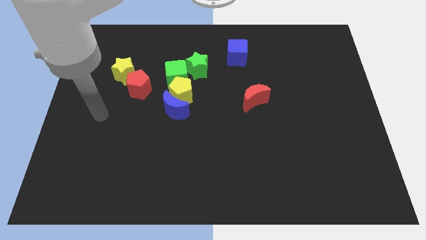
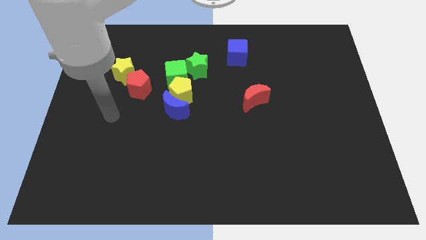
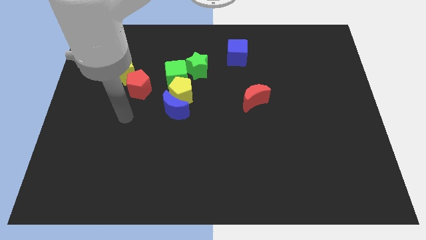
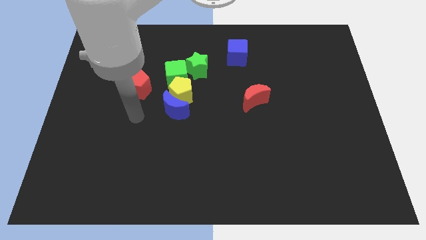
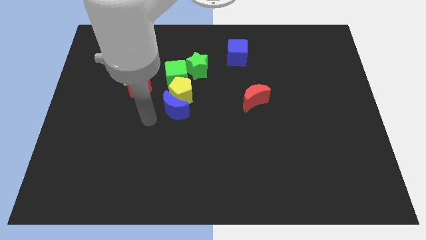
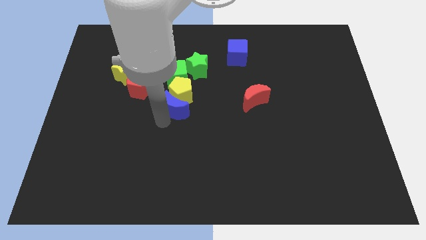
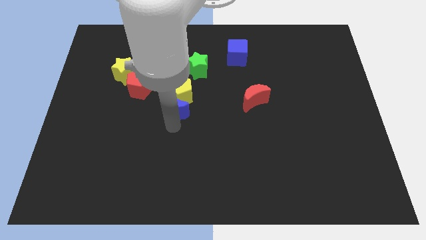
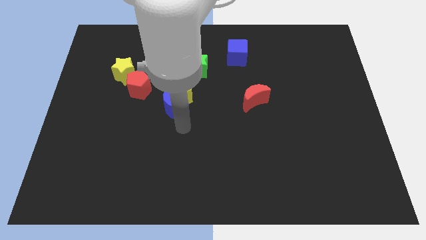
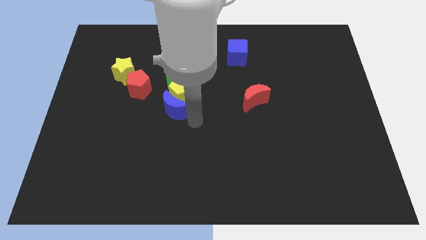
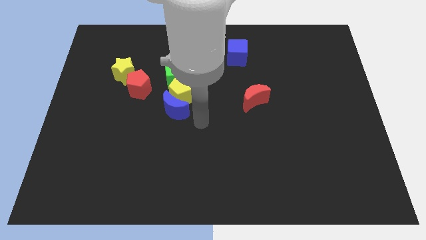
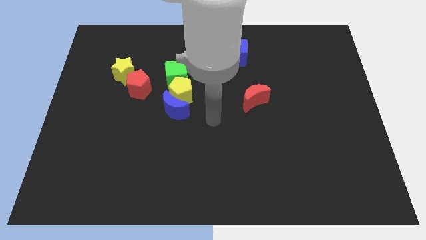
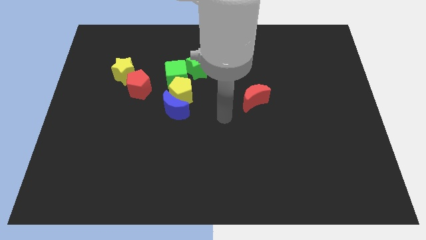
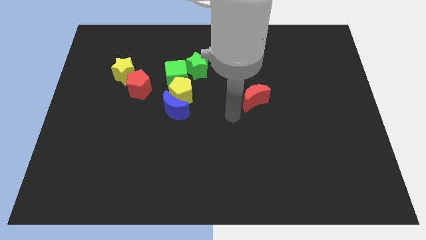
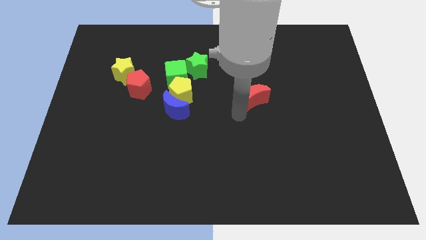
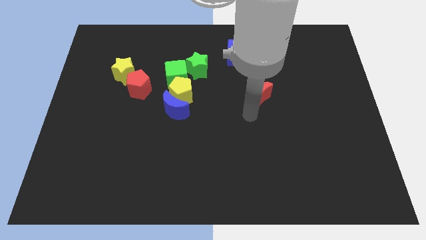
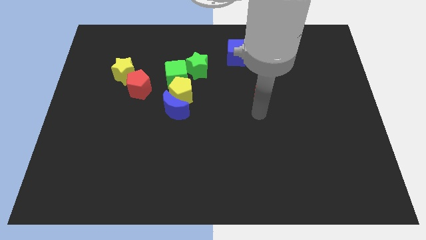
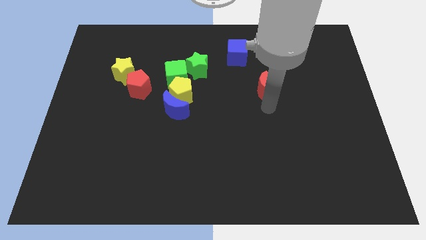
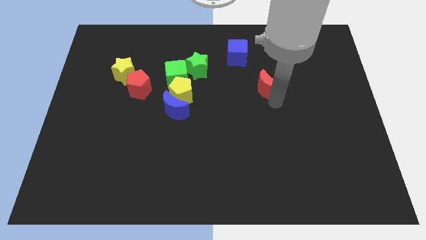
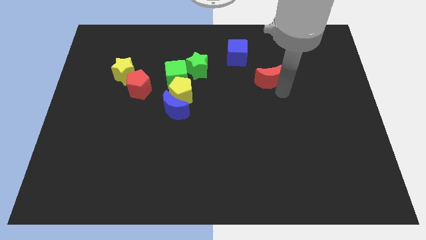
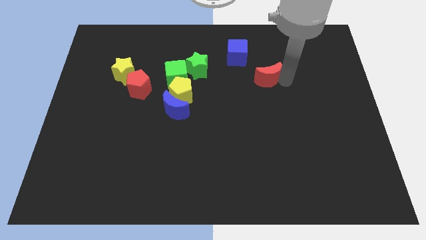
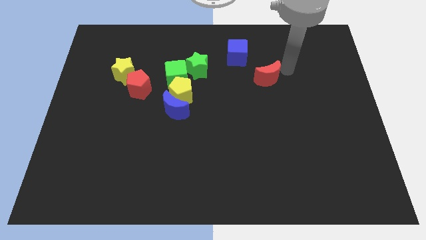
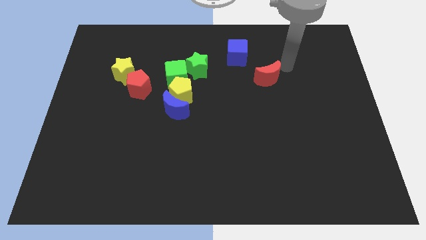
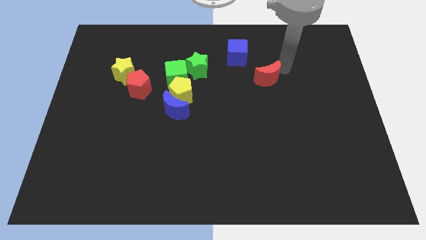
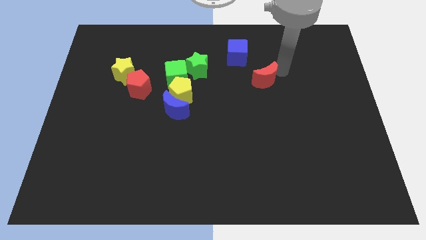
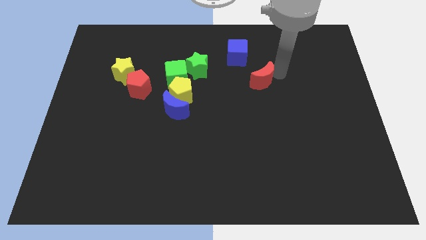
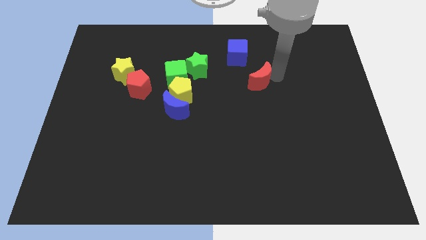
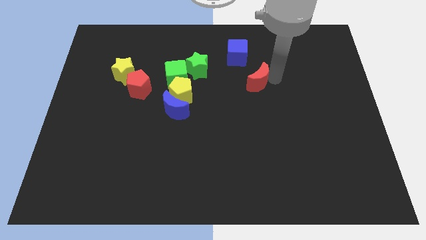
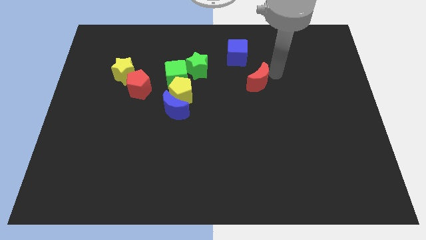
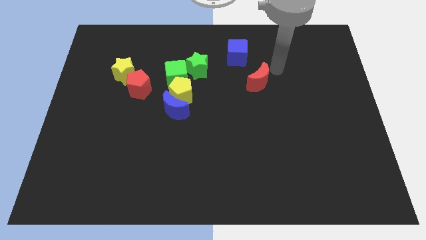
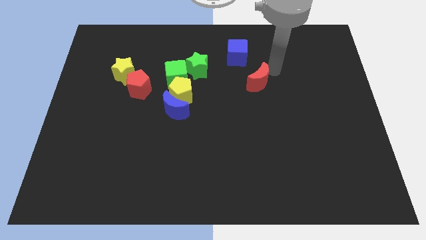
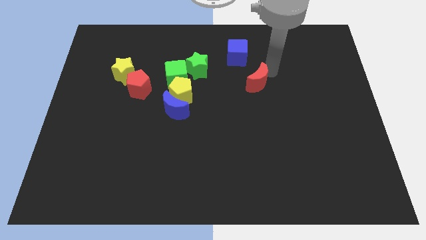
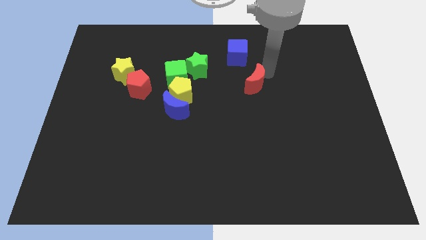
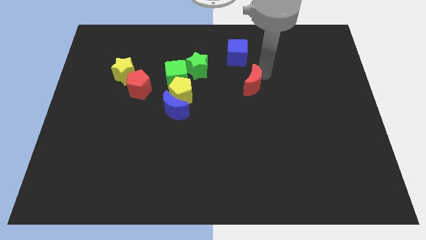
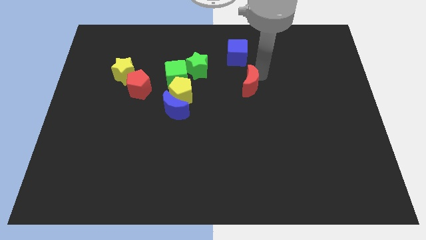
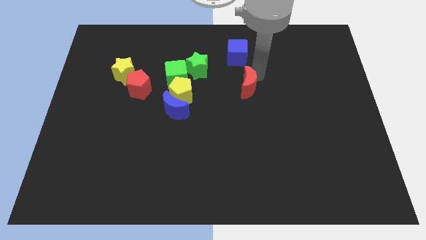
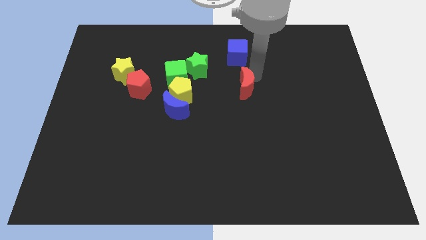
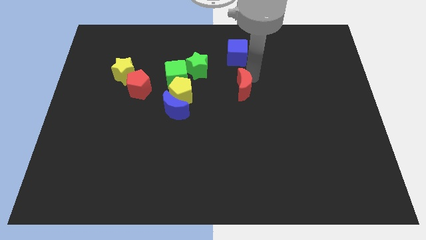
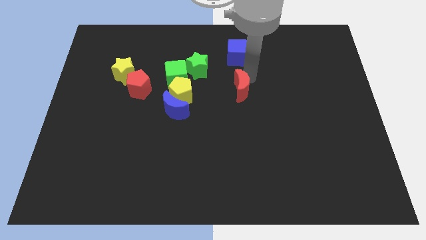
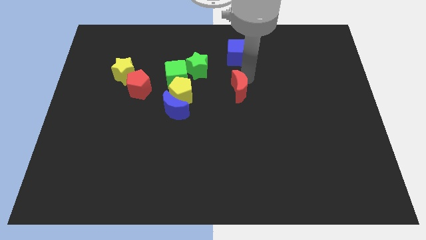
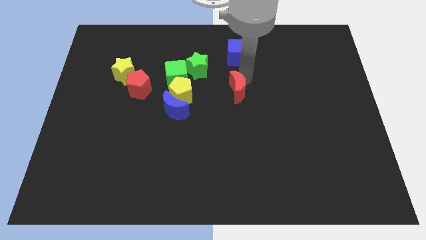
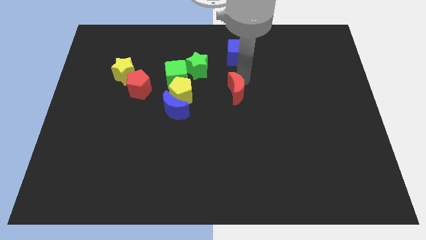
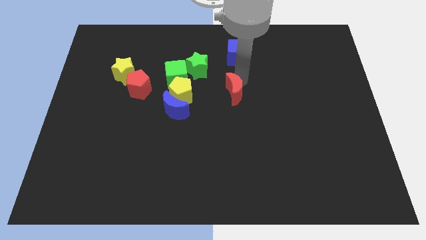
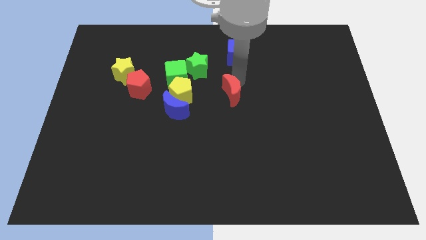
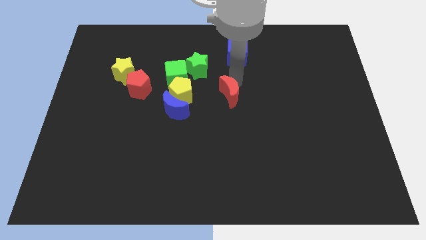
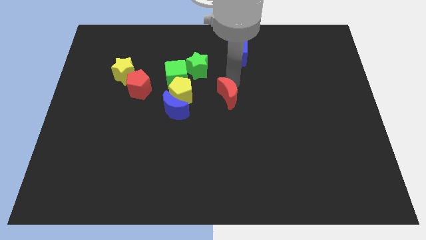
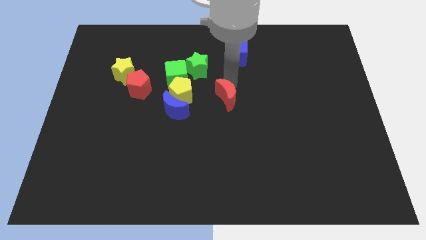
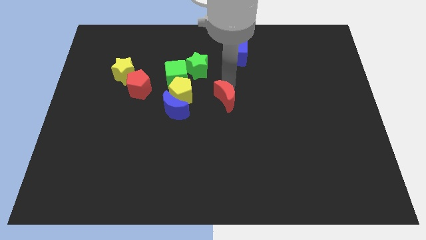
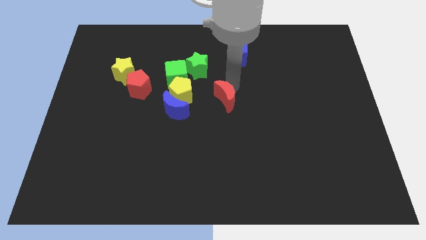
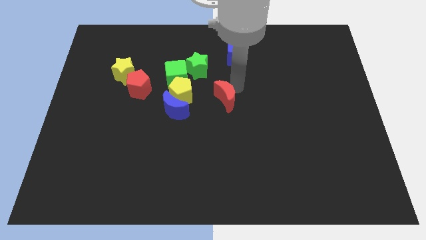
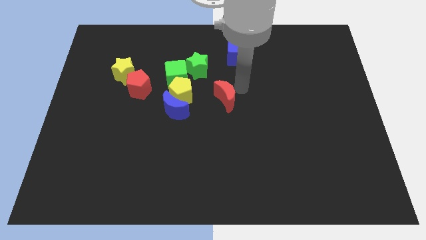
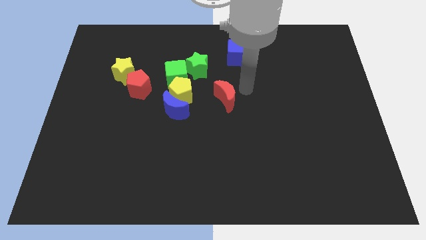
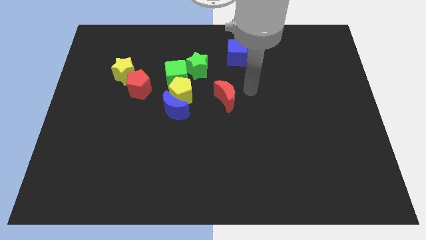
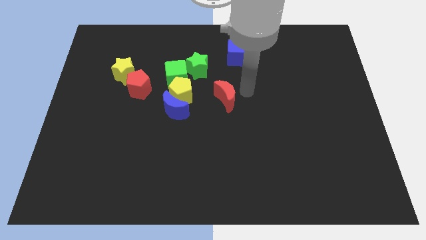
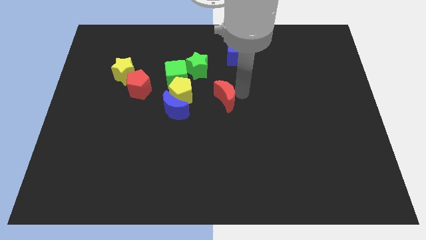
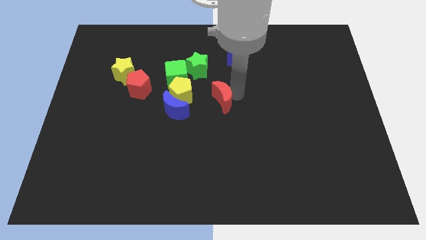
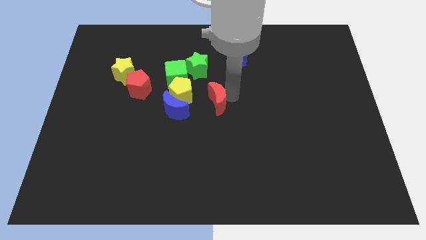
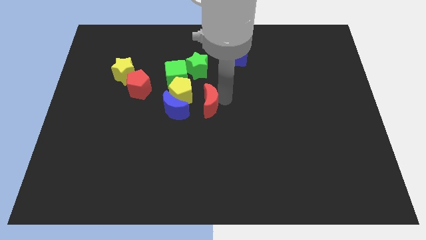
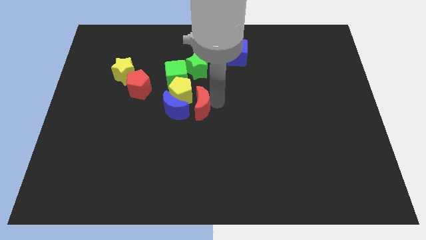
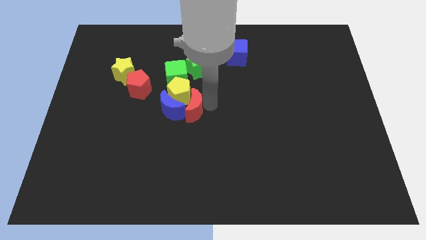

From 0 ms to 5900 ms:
slide the red moon to the blue moon

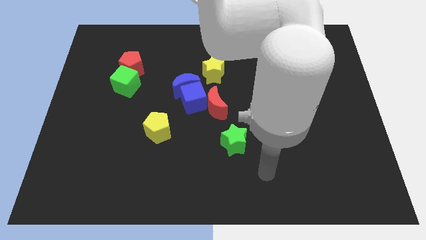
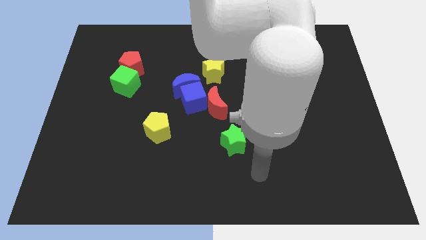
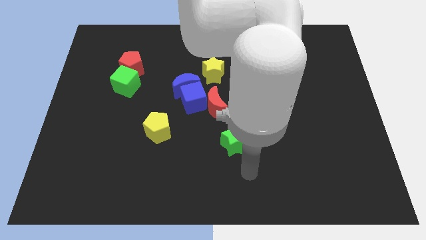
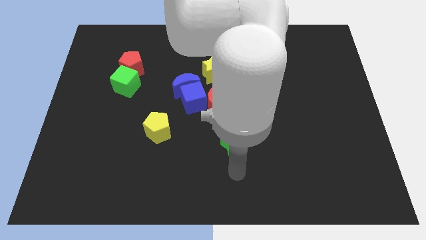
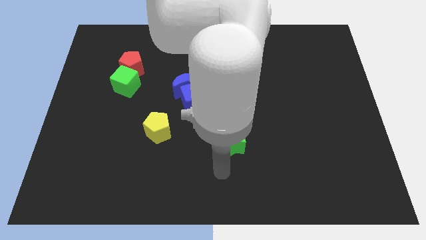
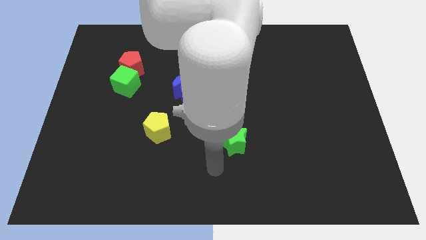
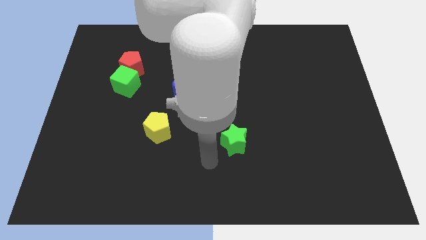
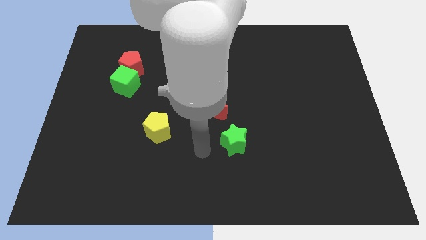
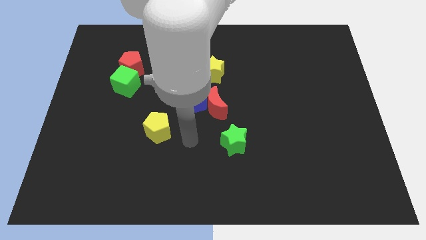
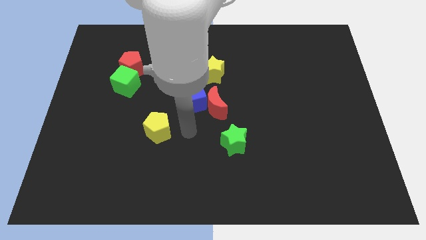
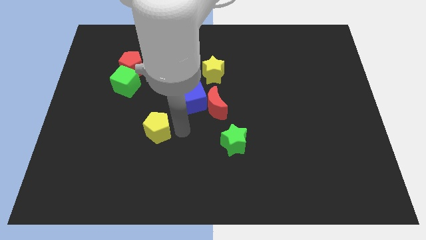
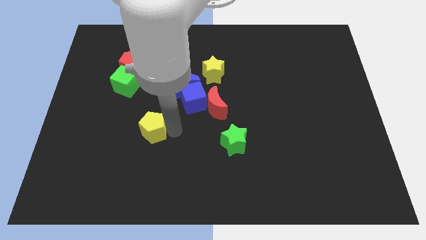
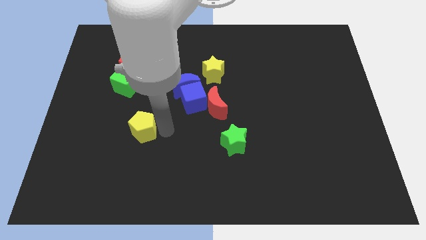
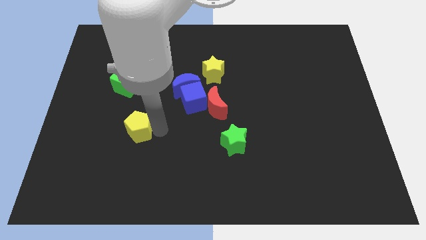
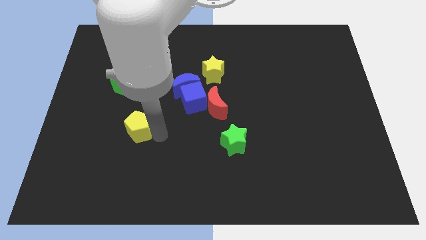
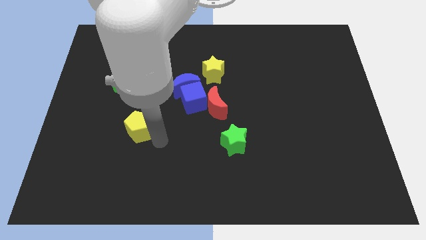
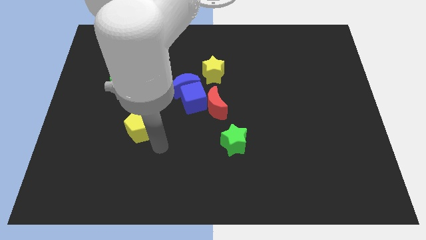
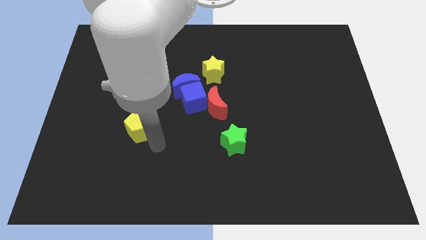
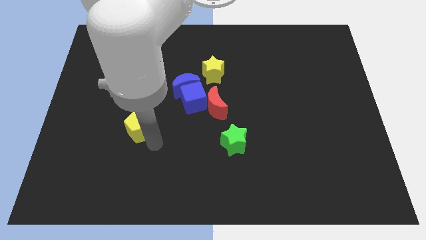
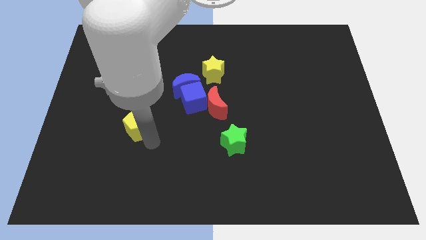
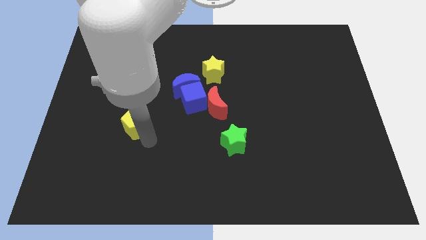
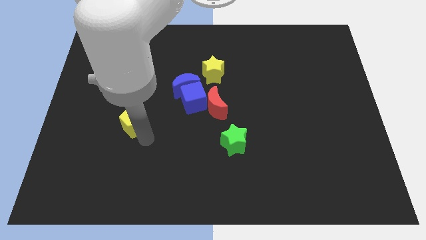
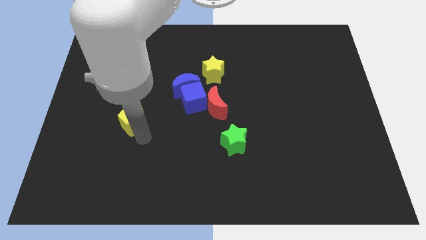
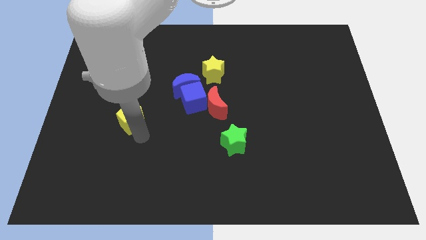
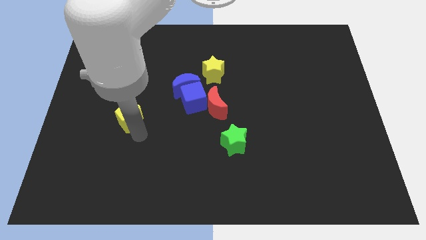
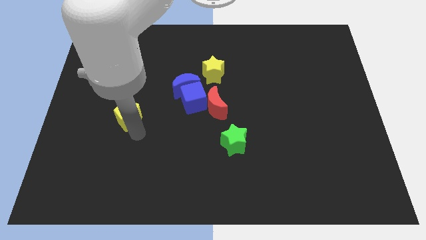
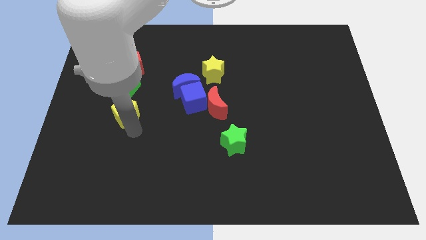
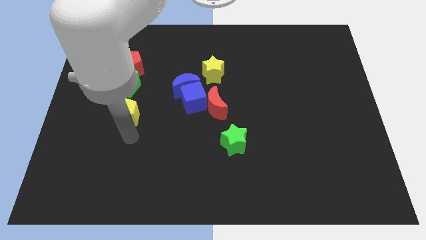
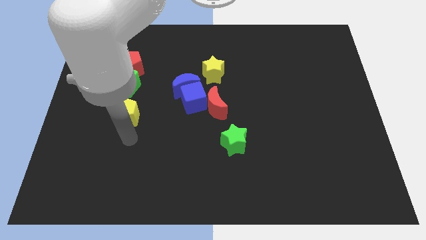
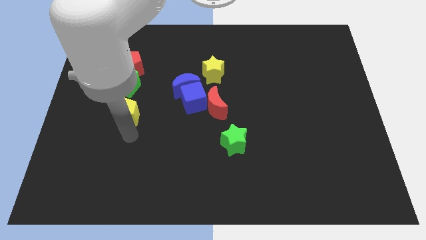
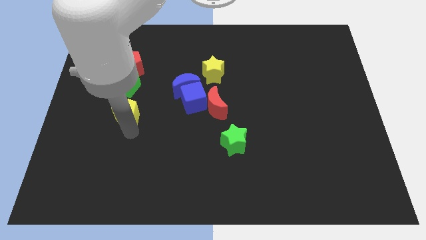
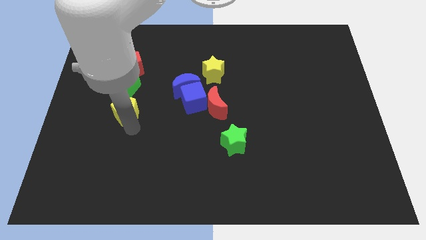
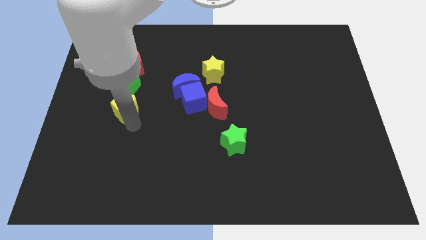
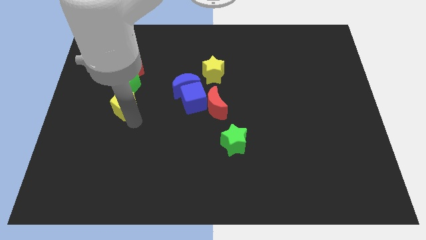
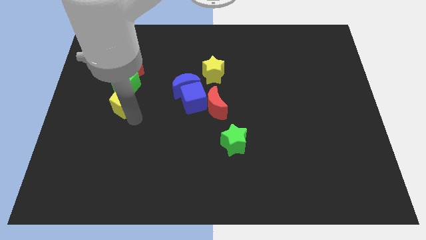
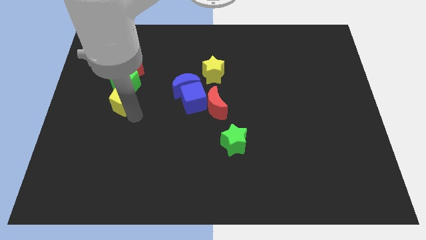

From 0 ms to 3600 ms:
slide the yellow pentagon close to the green cube
